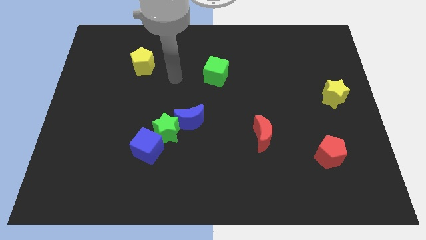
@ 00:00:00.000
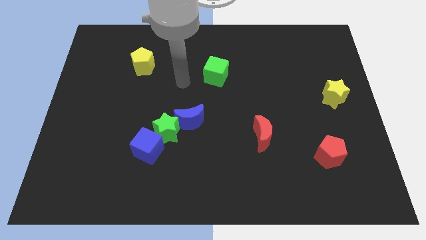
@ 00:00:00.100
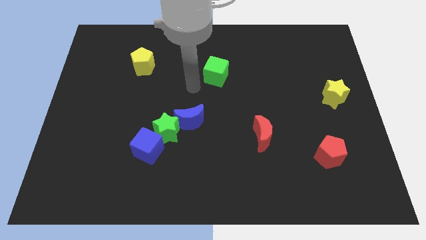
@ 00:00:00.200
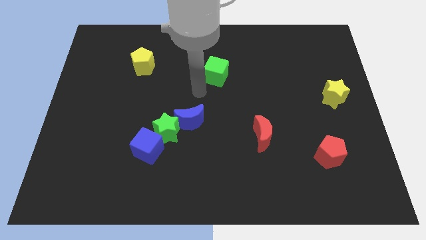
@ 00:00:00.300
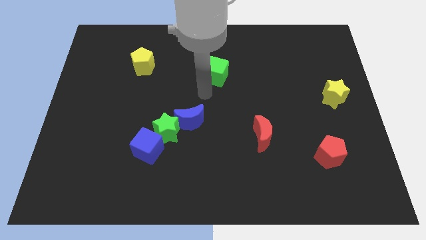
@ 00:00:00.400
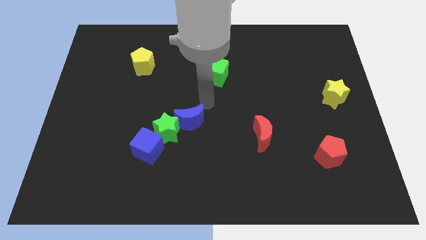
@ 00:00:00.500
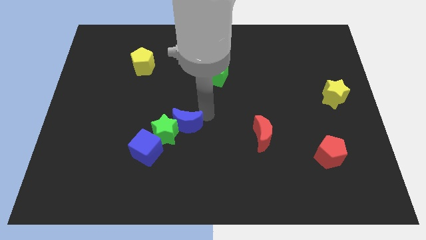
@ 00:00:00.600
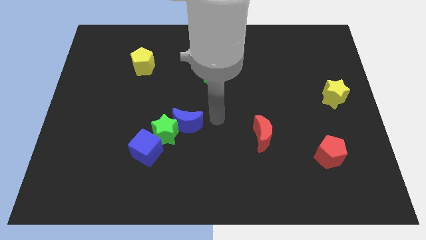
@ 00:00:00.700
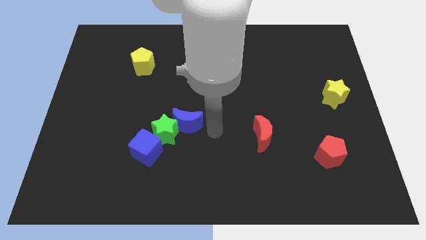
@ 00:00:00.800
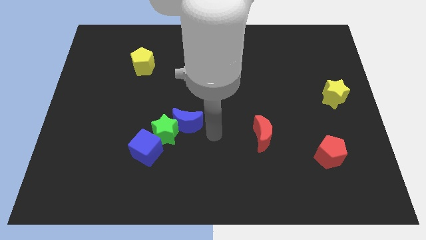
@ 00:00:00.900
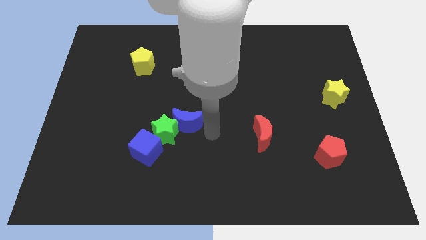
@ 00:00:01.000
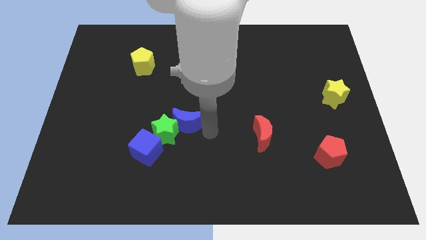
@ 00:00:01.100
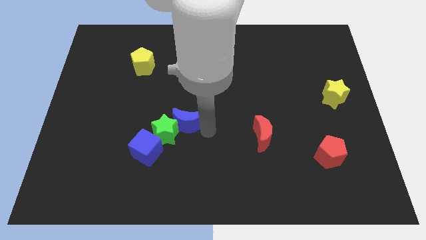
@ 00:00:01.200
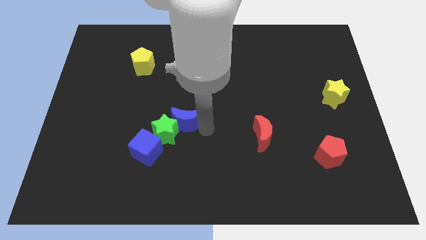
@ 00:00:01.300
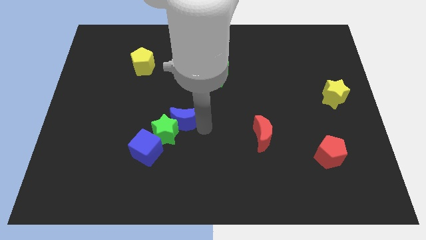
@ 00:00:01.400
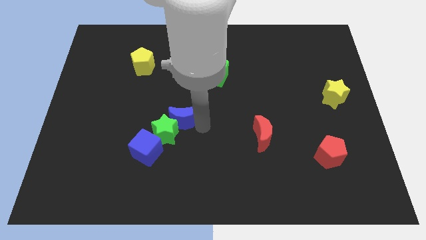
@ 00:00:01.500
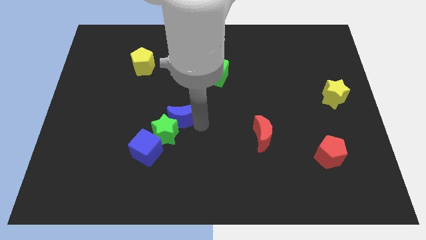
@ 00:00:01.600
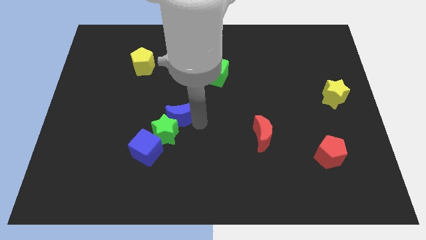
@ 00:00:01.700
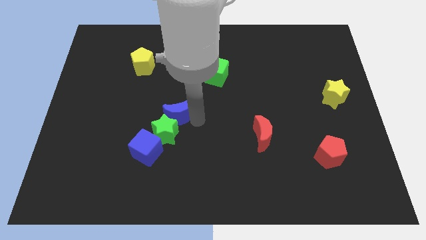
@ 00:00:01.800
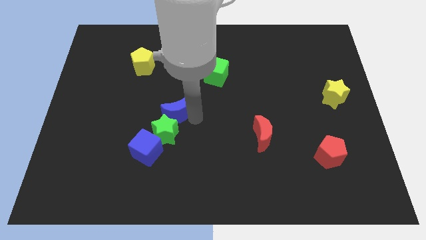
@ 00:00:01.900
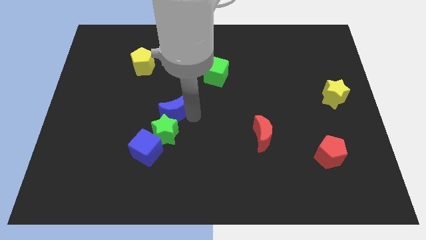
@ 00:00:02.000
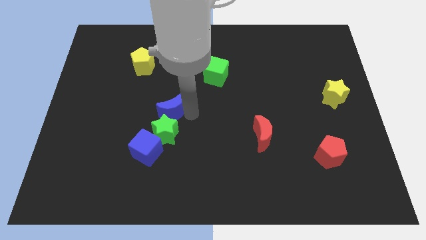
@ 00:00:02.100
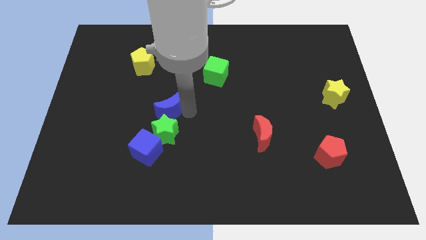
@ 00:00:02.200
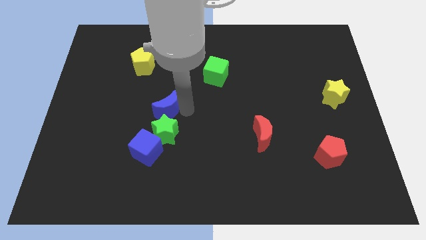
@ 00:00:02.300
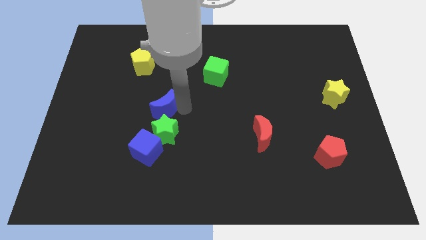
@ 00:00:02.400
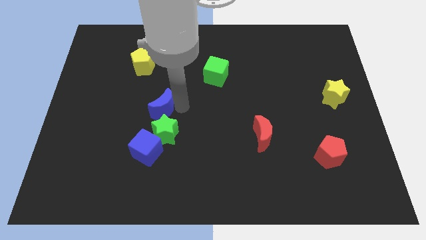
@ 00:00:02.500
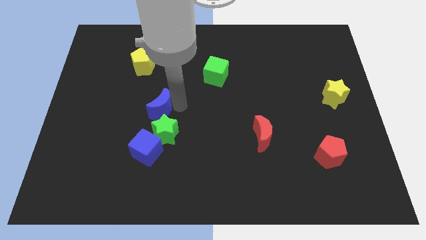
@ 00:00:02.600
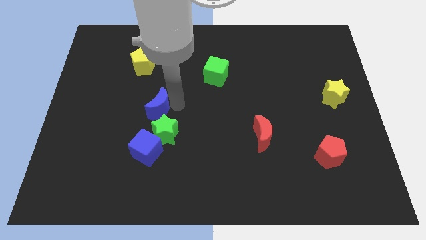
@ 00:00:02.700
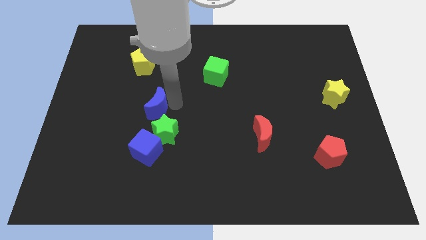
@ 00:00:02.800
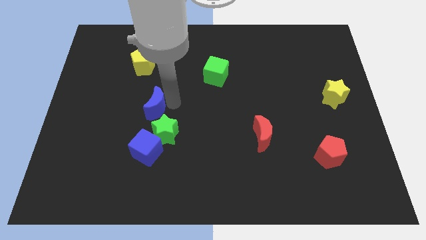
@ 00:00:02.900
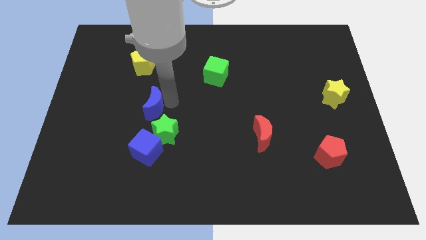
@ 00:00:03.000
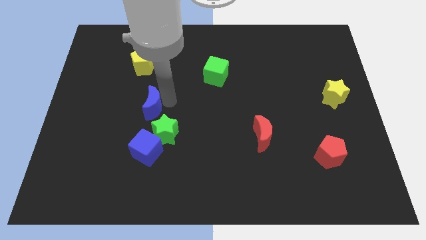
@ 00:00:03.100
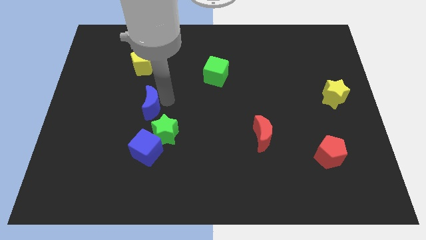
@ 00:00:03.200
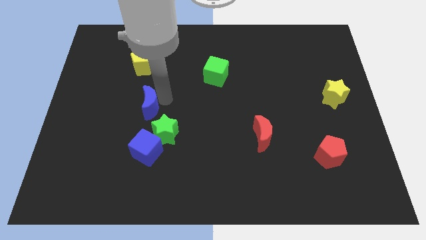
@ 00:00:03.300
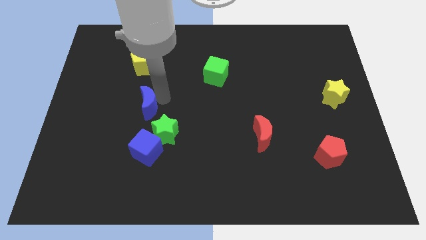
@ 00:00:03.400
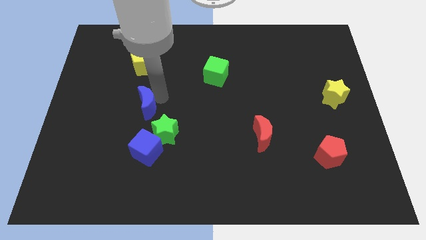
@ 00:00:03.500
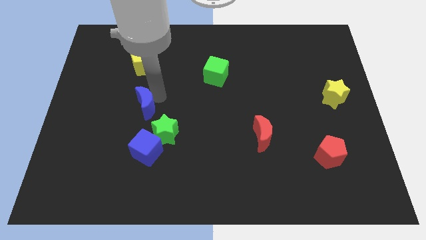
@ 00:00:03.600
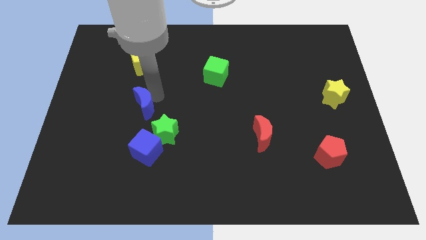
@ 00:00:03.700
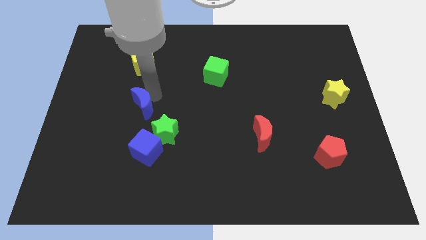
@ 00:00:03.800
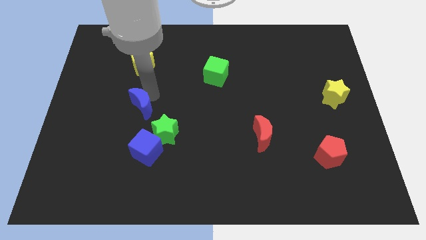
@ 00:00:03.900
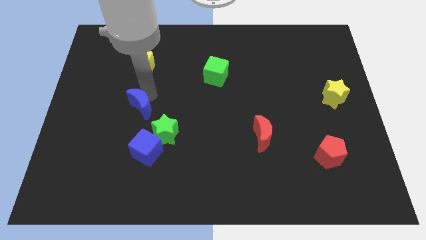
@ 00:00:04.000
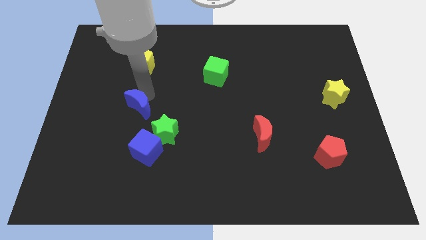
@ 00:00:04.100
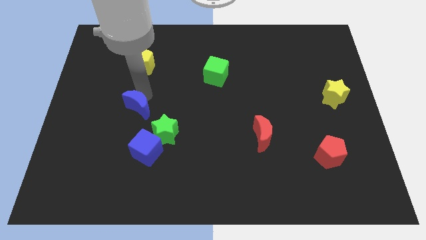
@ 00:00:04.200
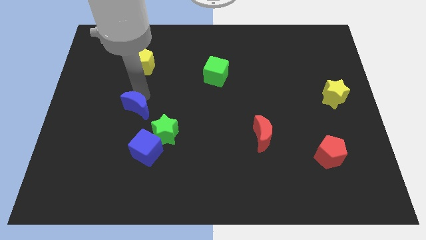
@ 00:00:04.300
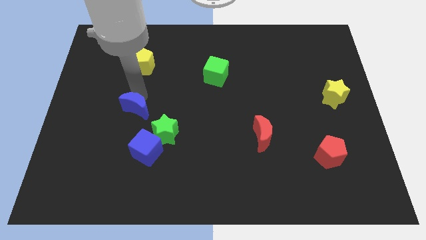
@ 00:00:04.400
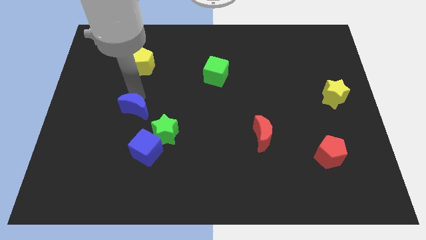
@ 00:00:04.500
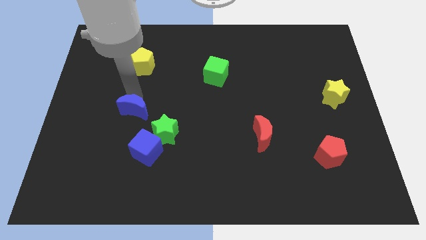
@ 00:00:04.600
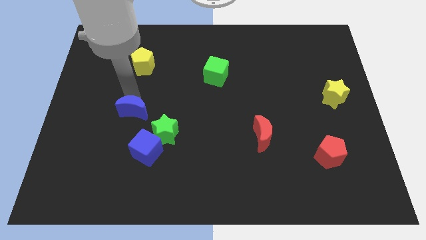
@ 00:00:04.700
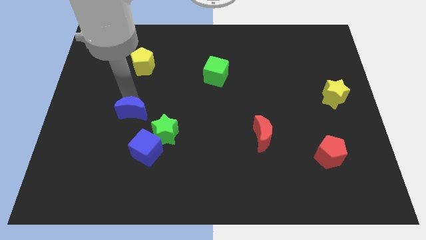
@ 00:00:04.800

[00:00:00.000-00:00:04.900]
push the blue moon to the top left of the blue cube

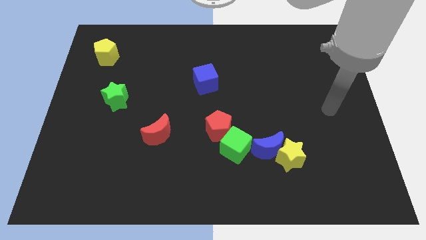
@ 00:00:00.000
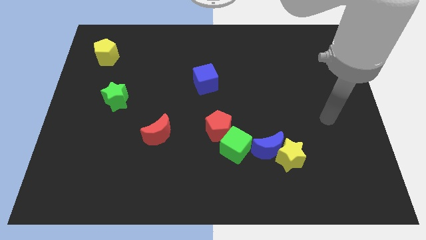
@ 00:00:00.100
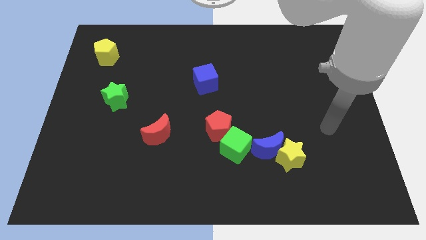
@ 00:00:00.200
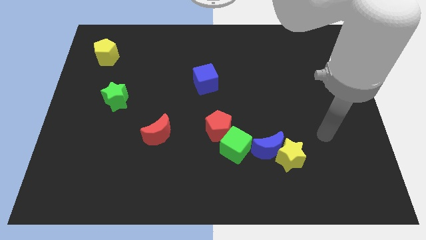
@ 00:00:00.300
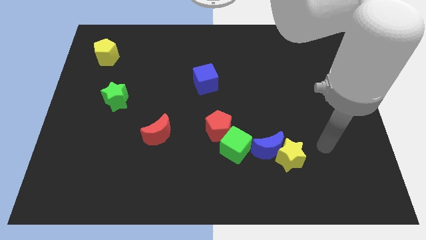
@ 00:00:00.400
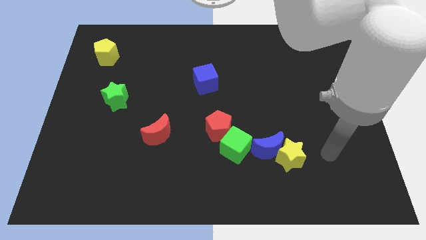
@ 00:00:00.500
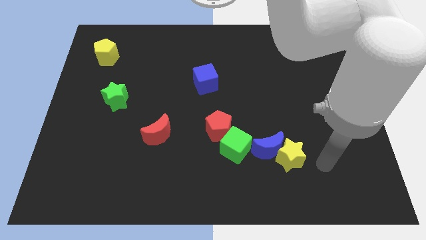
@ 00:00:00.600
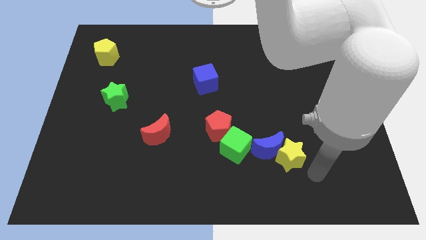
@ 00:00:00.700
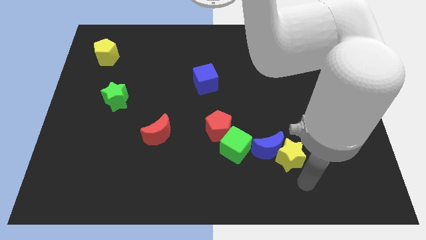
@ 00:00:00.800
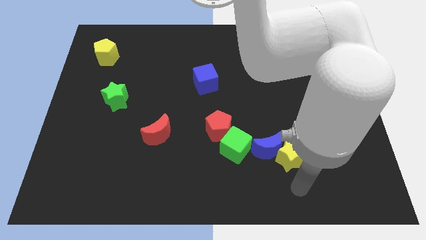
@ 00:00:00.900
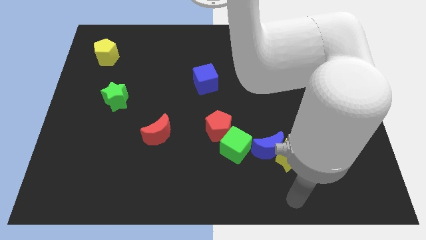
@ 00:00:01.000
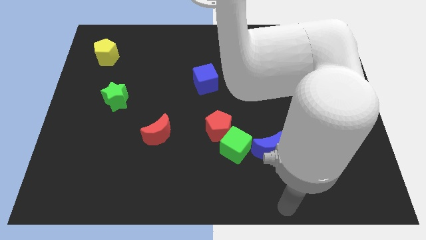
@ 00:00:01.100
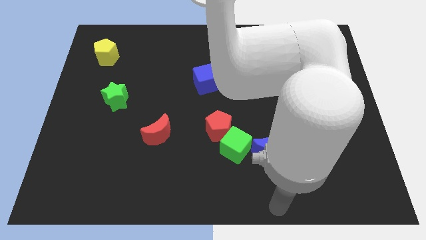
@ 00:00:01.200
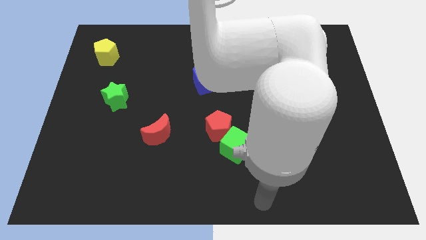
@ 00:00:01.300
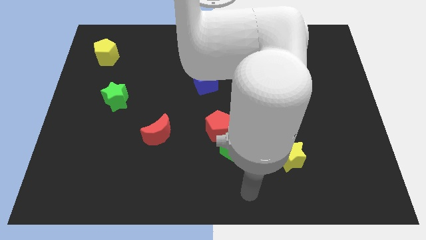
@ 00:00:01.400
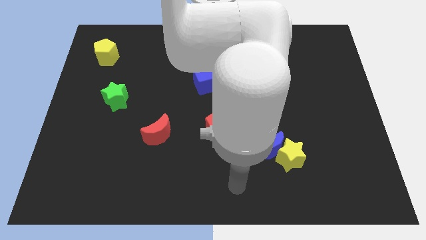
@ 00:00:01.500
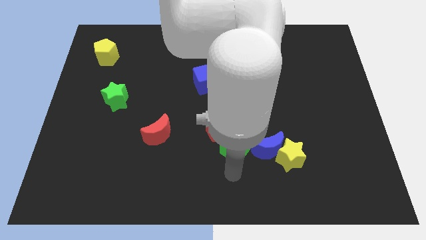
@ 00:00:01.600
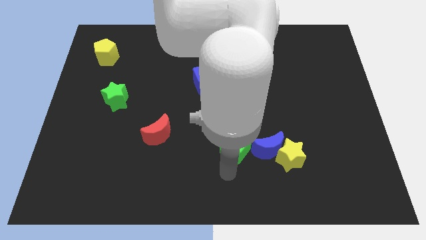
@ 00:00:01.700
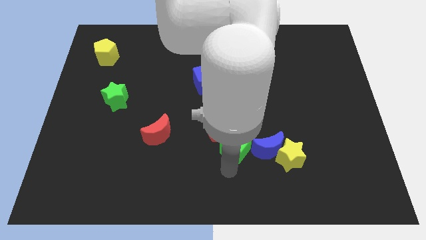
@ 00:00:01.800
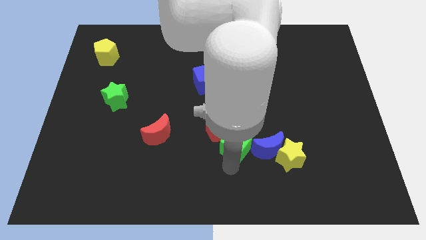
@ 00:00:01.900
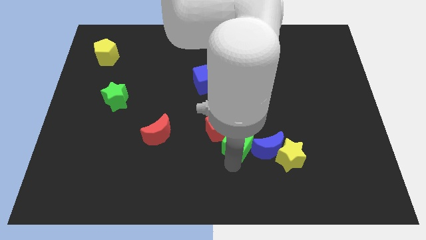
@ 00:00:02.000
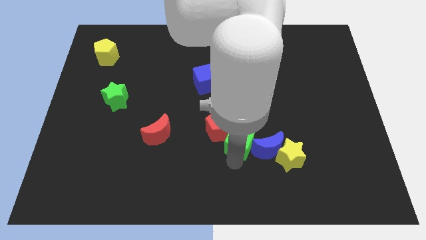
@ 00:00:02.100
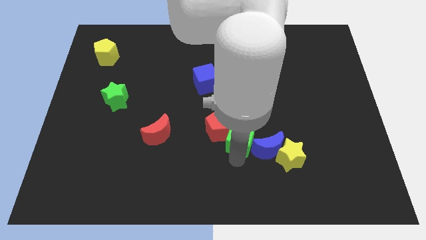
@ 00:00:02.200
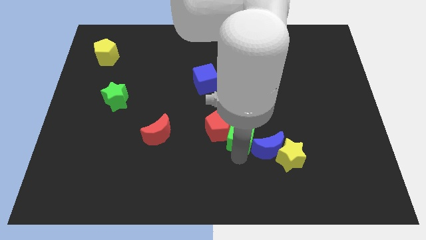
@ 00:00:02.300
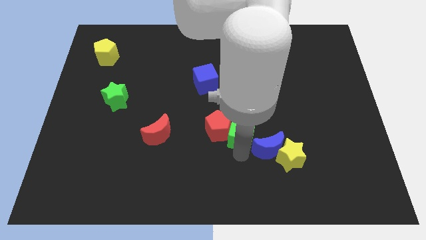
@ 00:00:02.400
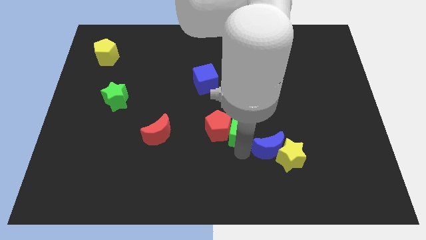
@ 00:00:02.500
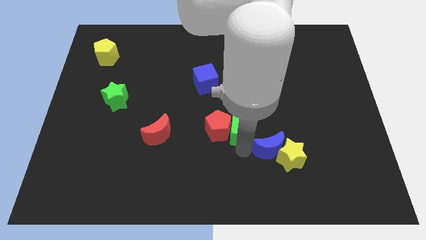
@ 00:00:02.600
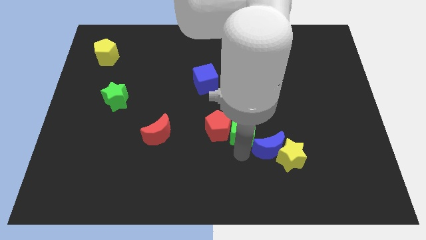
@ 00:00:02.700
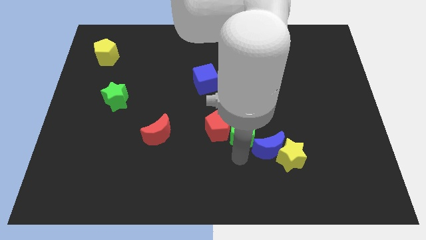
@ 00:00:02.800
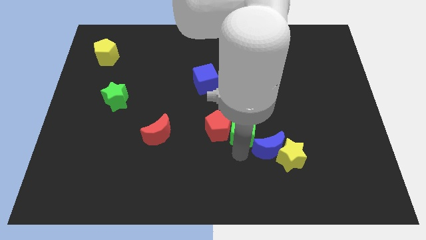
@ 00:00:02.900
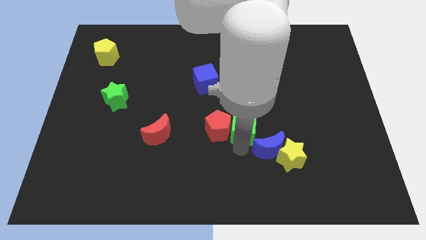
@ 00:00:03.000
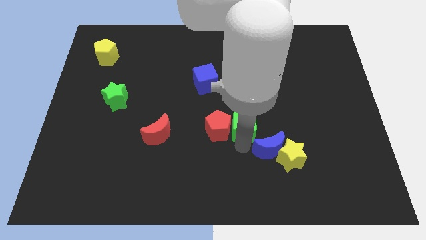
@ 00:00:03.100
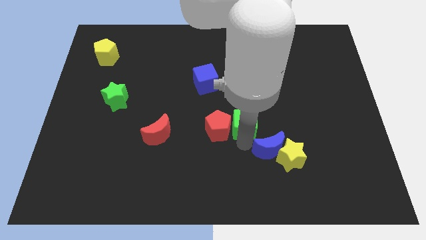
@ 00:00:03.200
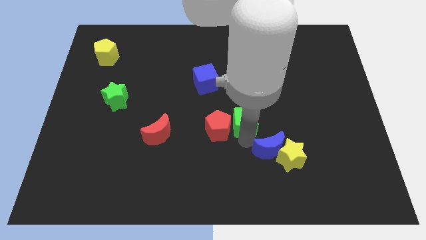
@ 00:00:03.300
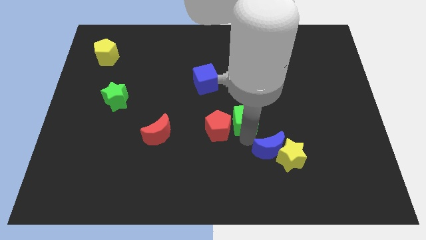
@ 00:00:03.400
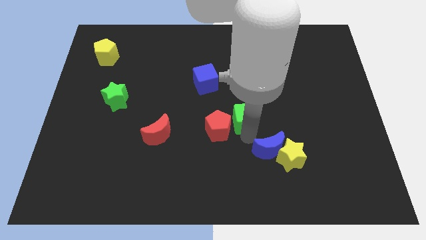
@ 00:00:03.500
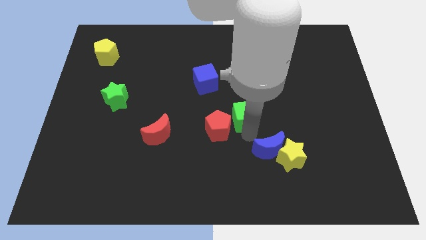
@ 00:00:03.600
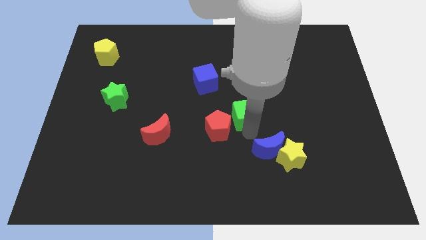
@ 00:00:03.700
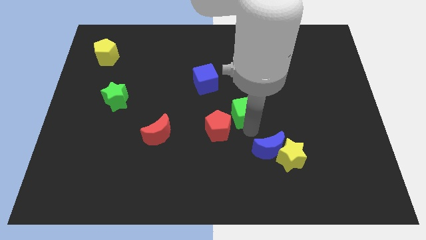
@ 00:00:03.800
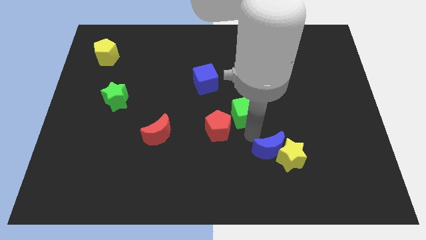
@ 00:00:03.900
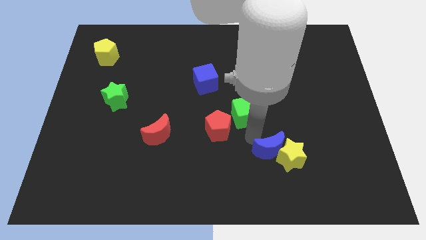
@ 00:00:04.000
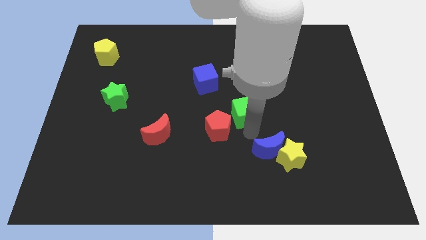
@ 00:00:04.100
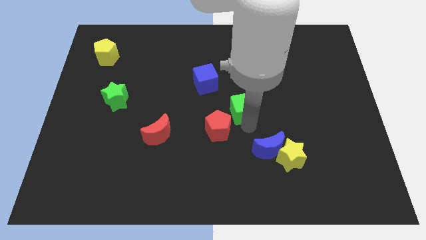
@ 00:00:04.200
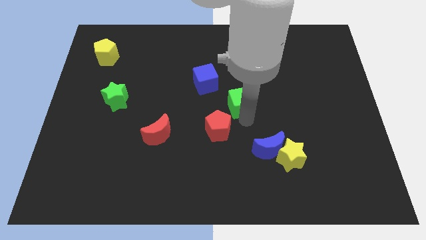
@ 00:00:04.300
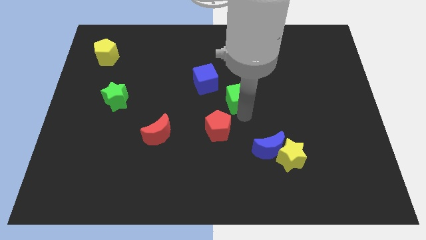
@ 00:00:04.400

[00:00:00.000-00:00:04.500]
slide the green cube to the top of the red pentagon
